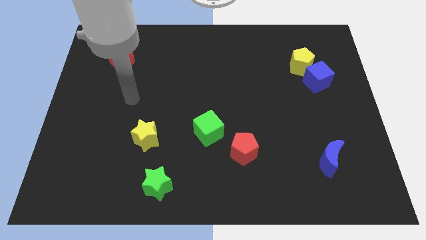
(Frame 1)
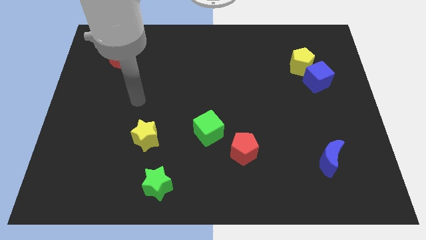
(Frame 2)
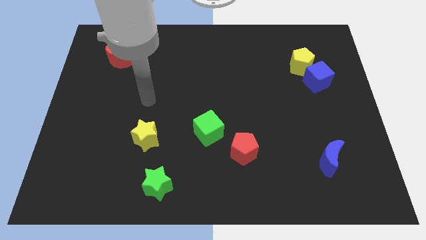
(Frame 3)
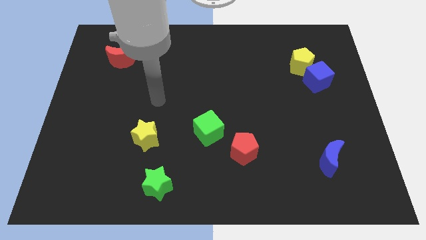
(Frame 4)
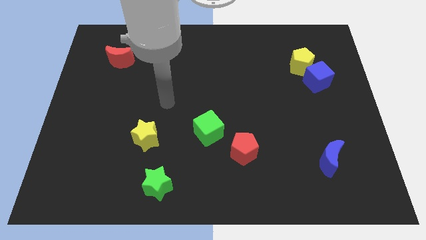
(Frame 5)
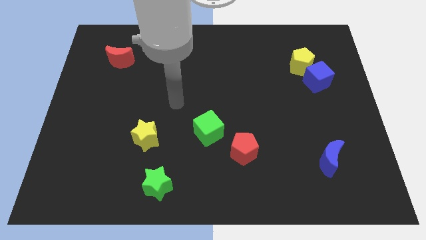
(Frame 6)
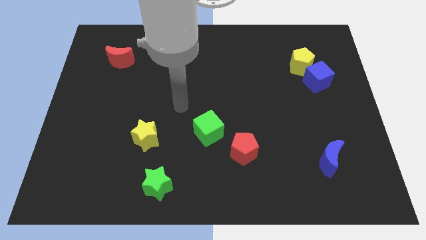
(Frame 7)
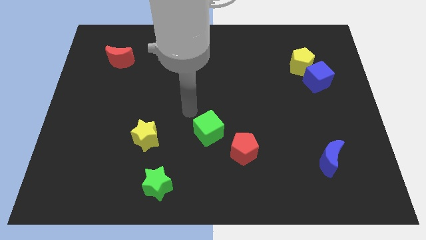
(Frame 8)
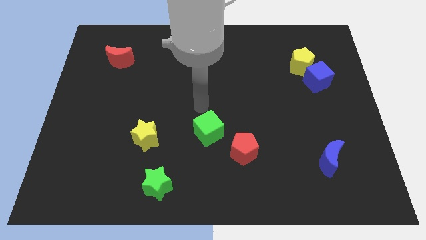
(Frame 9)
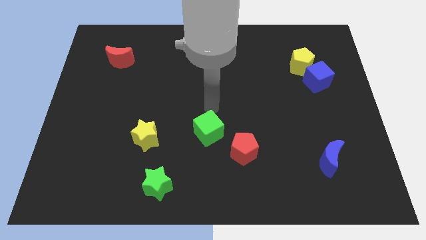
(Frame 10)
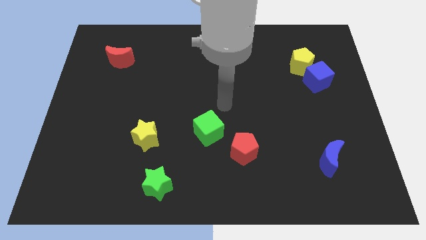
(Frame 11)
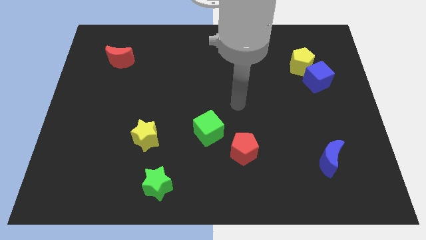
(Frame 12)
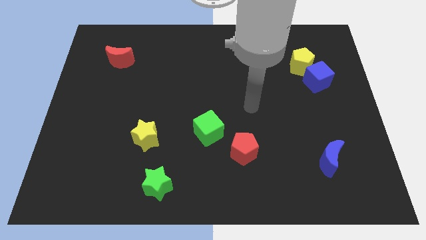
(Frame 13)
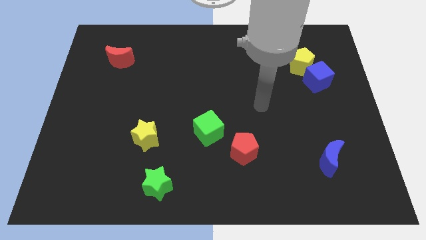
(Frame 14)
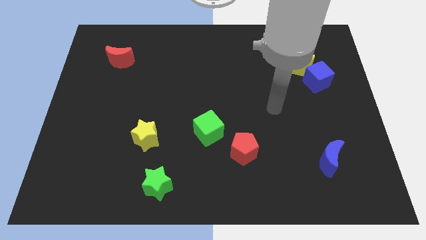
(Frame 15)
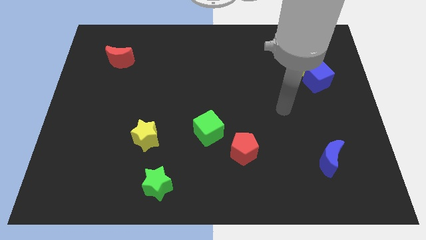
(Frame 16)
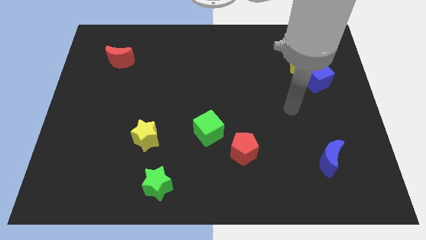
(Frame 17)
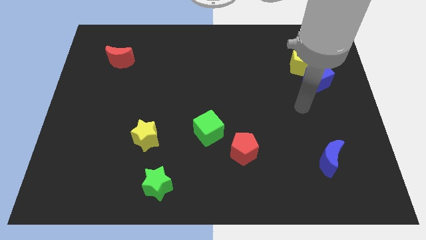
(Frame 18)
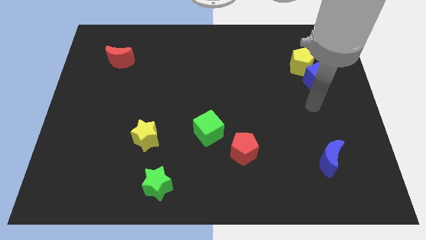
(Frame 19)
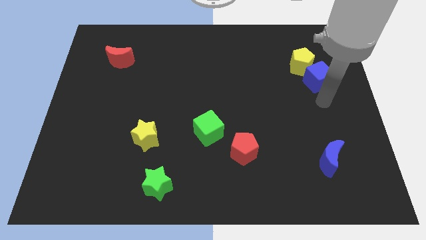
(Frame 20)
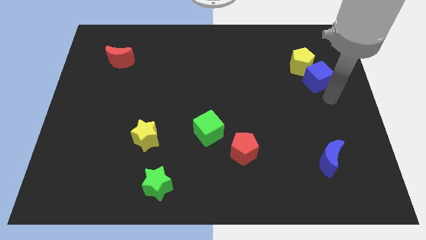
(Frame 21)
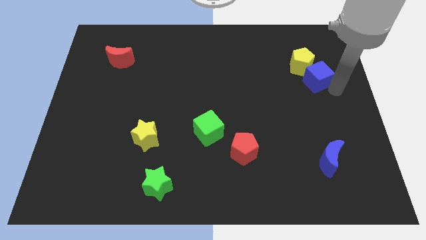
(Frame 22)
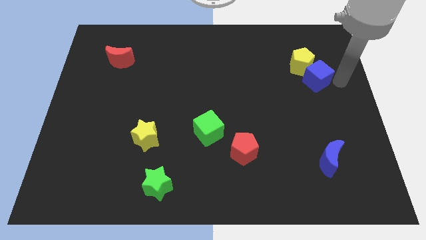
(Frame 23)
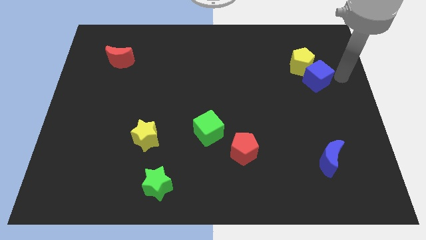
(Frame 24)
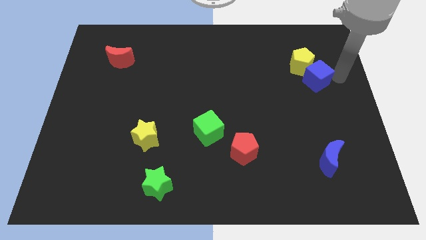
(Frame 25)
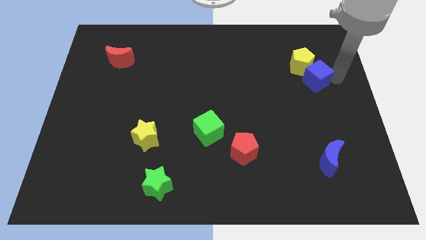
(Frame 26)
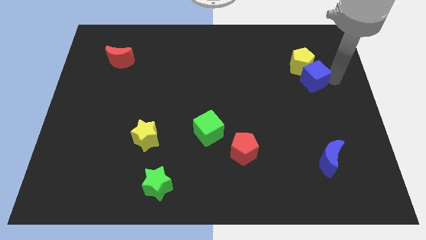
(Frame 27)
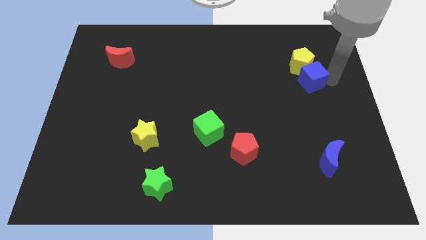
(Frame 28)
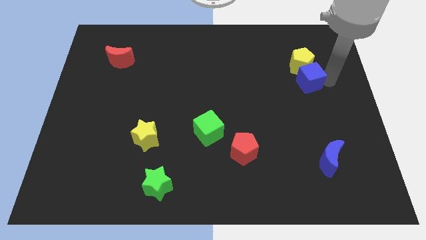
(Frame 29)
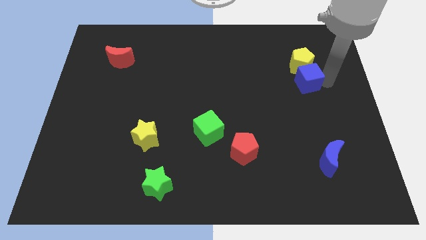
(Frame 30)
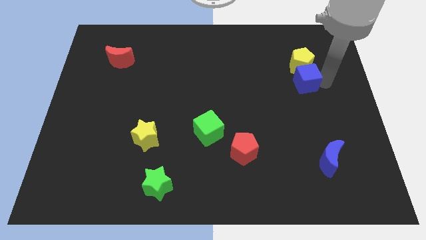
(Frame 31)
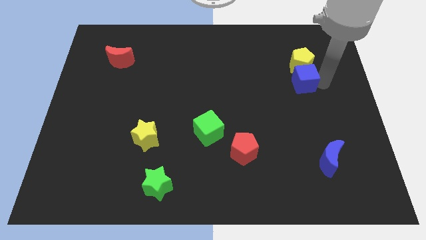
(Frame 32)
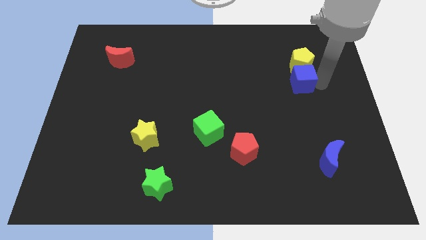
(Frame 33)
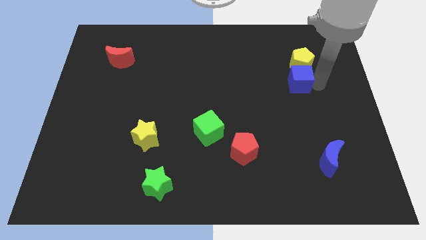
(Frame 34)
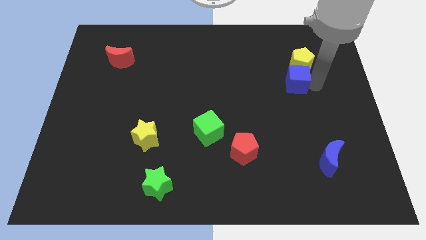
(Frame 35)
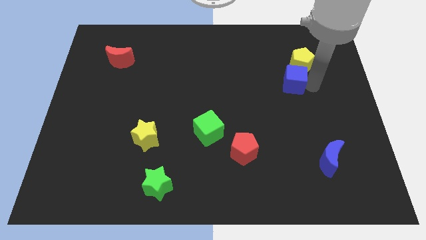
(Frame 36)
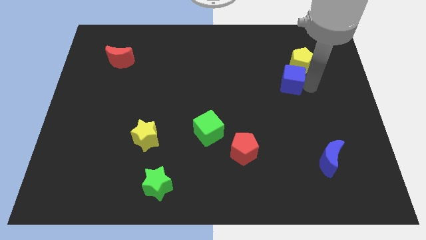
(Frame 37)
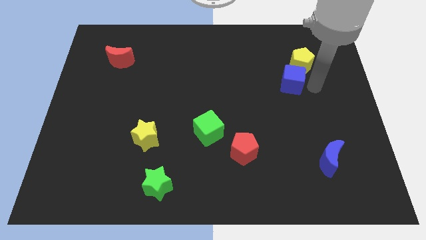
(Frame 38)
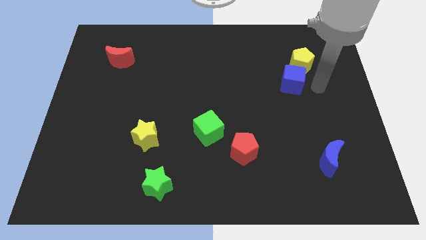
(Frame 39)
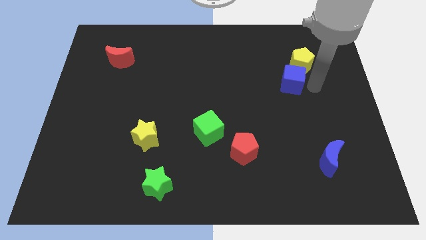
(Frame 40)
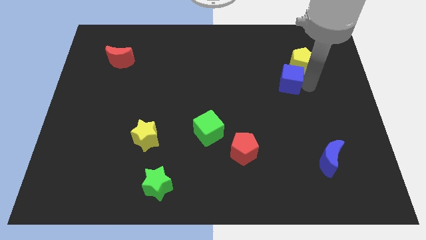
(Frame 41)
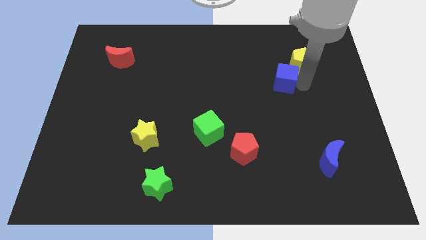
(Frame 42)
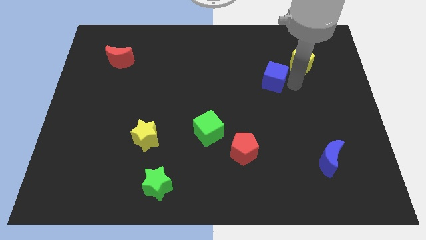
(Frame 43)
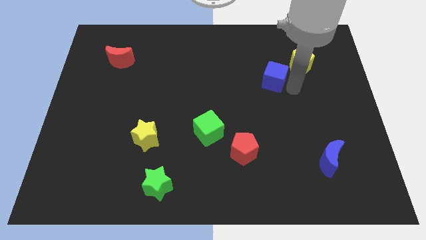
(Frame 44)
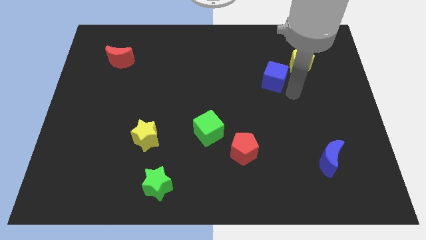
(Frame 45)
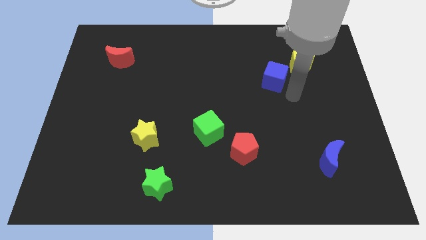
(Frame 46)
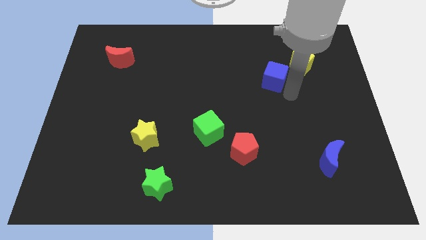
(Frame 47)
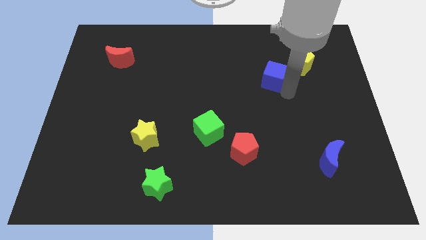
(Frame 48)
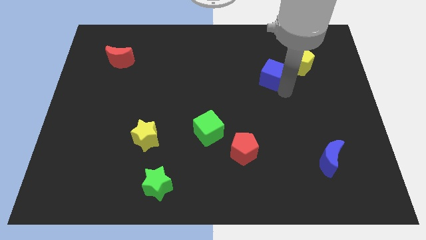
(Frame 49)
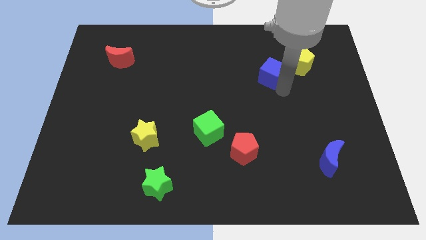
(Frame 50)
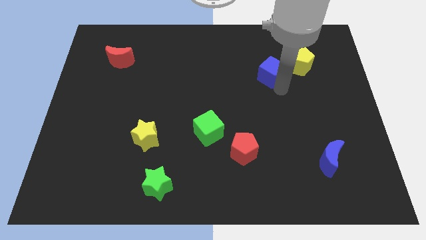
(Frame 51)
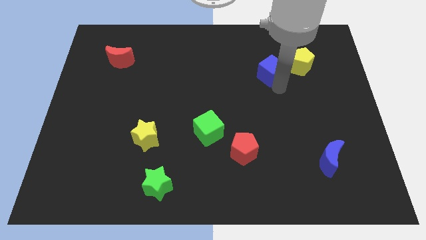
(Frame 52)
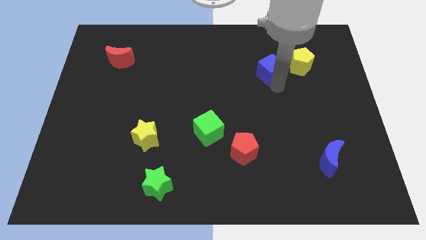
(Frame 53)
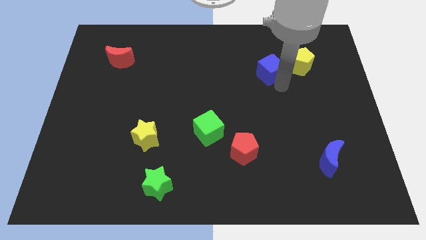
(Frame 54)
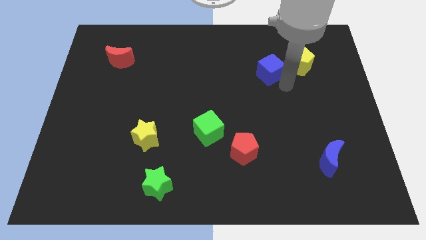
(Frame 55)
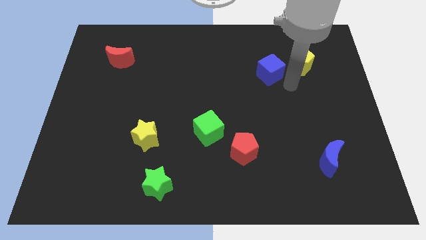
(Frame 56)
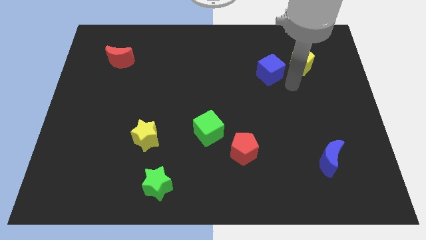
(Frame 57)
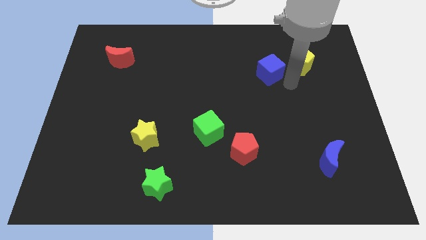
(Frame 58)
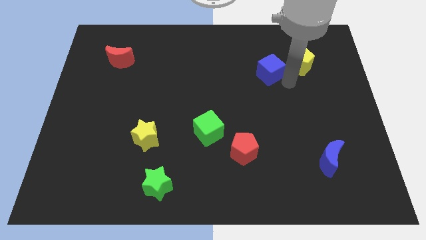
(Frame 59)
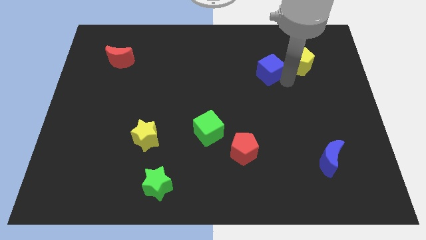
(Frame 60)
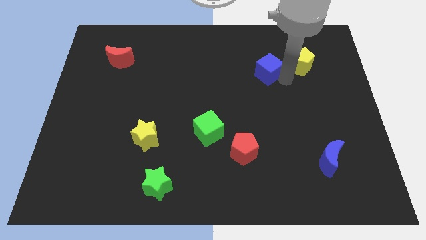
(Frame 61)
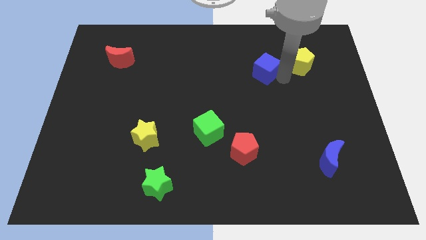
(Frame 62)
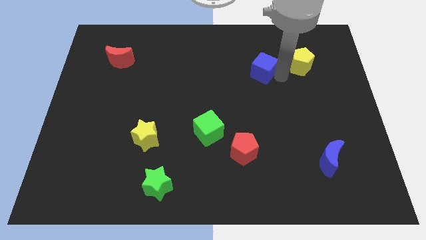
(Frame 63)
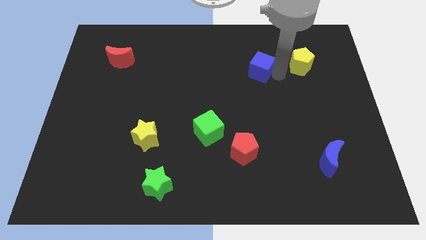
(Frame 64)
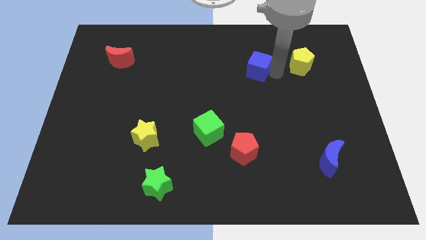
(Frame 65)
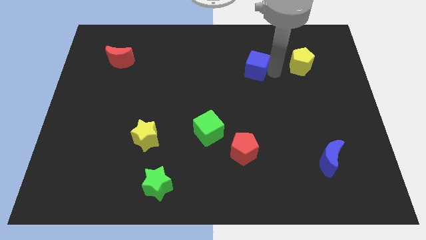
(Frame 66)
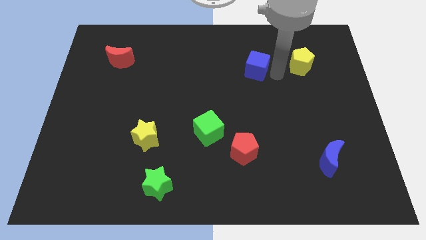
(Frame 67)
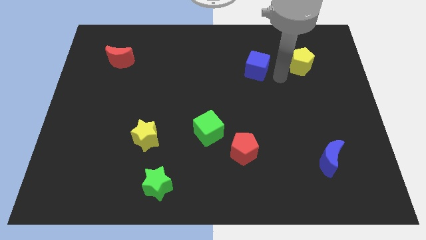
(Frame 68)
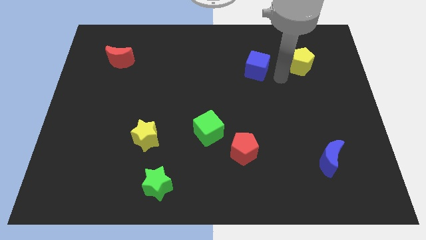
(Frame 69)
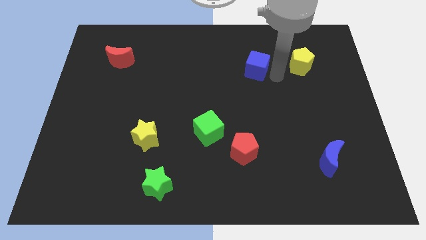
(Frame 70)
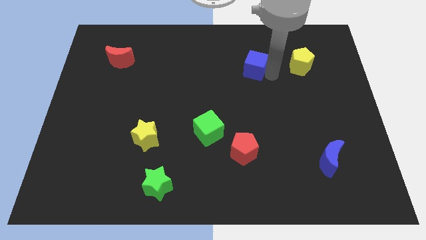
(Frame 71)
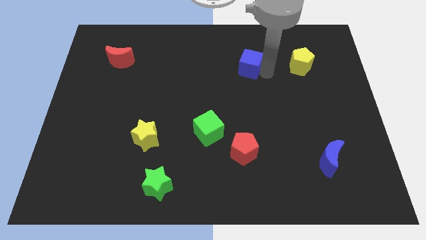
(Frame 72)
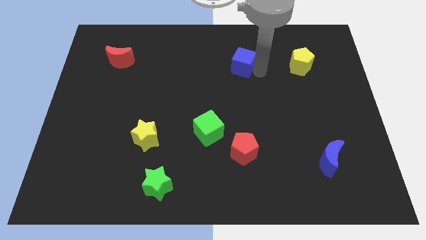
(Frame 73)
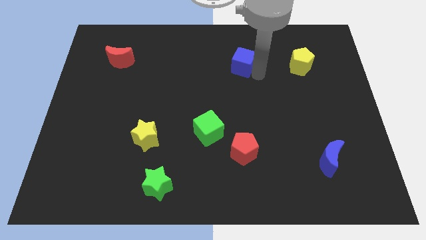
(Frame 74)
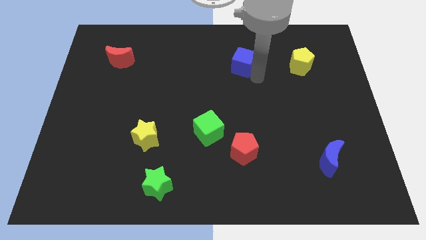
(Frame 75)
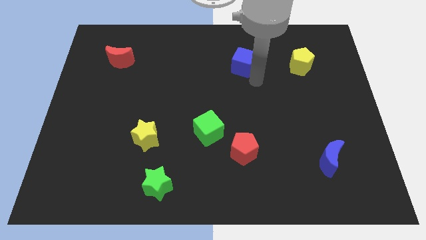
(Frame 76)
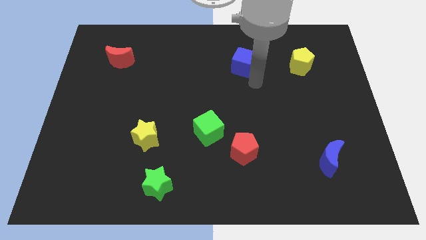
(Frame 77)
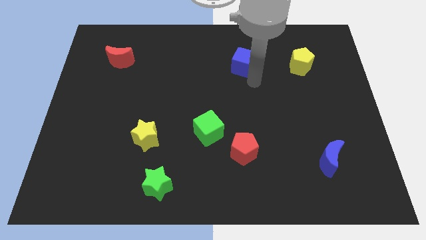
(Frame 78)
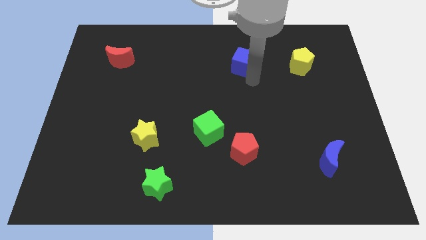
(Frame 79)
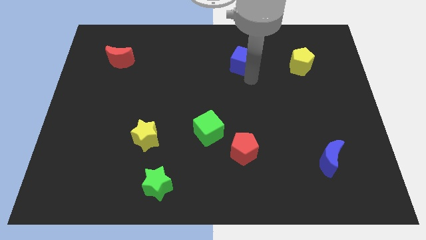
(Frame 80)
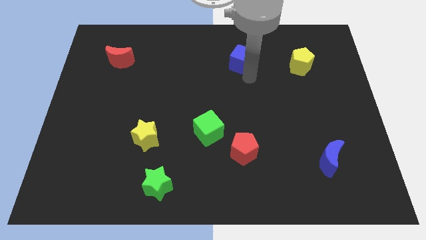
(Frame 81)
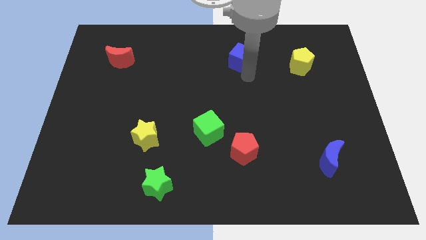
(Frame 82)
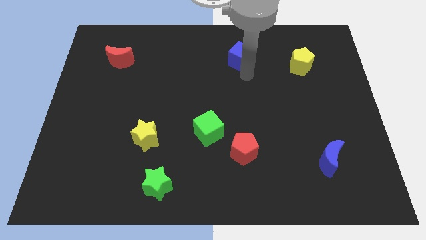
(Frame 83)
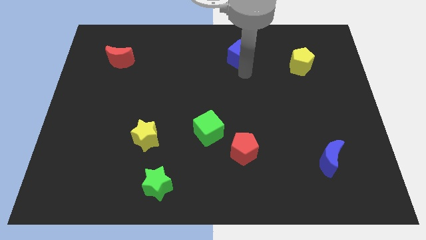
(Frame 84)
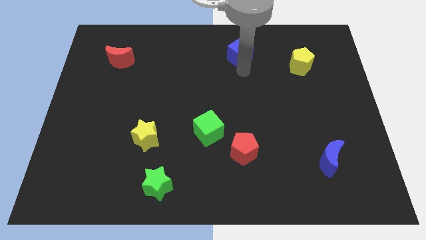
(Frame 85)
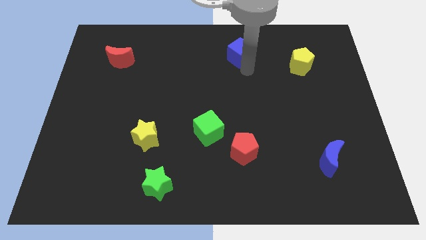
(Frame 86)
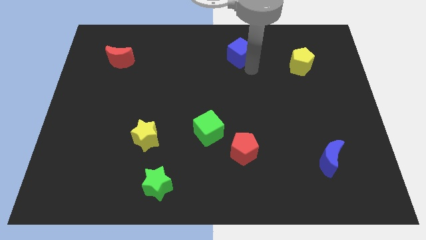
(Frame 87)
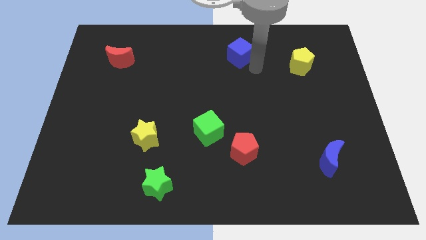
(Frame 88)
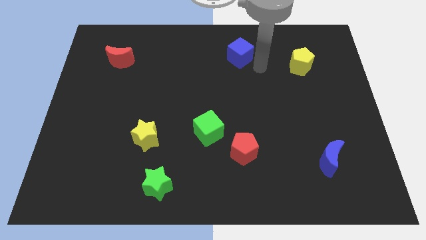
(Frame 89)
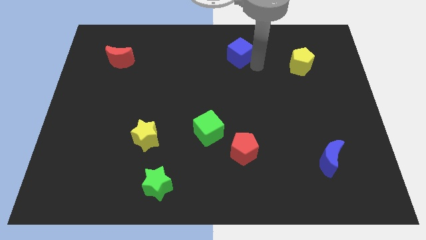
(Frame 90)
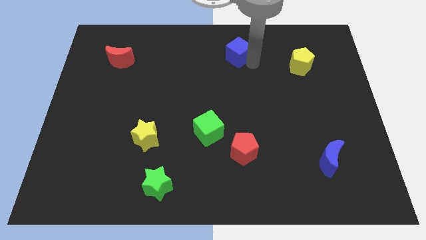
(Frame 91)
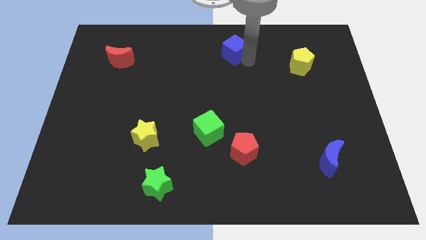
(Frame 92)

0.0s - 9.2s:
push the blue cube to the top side
